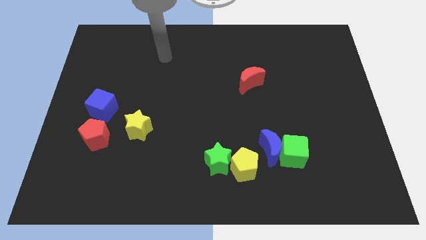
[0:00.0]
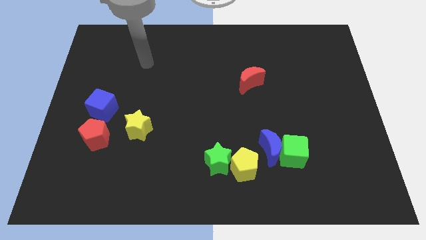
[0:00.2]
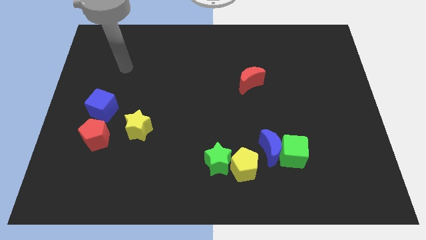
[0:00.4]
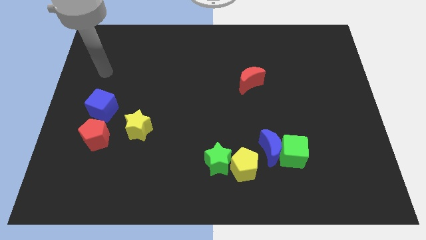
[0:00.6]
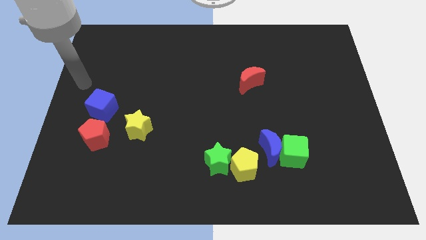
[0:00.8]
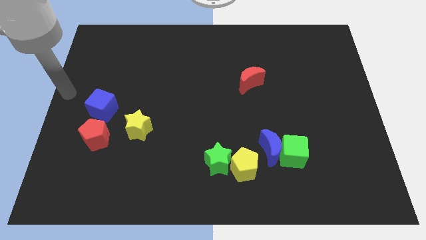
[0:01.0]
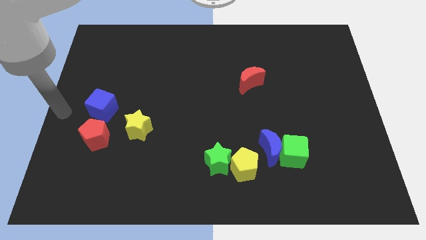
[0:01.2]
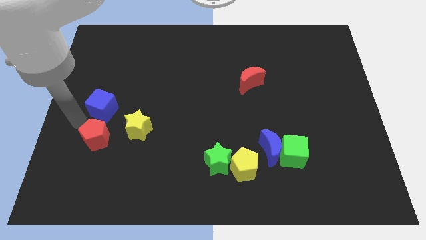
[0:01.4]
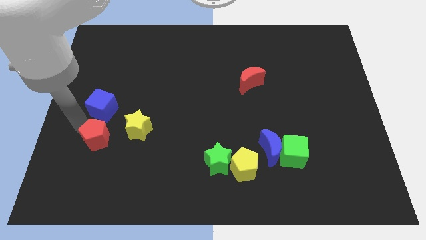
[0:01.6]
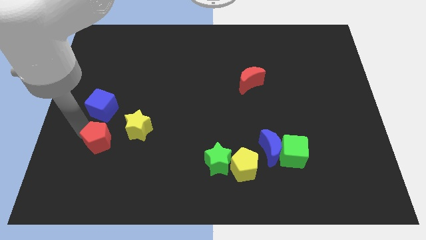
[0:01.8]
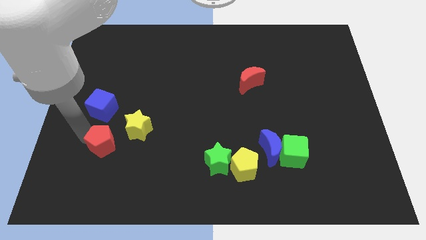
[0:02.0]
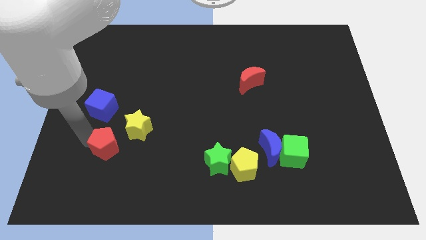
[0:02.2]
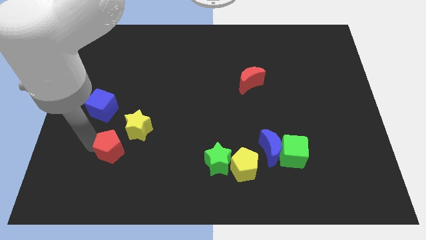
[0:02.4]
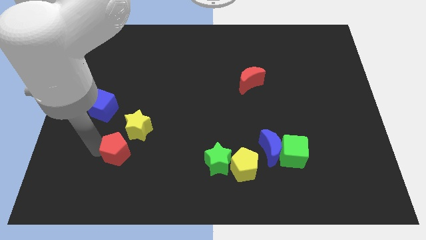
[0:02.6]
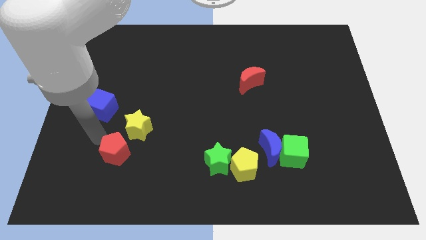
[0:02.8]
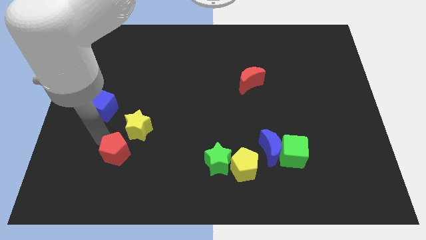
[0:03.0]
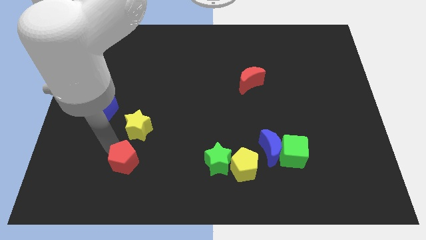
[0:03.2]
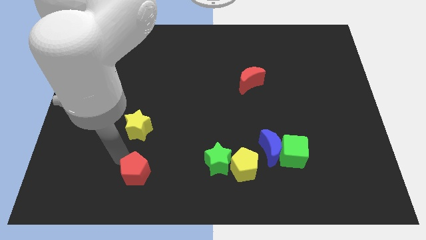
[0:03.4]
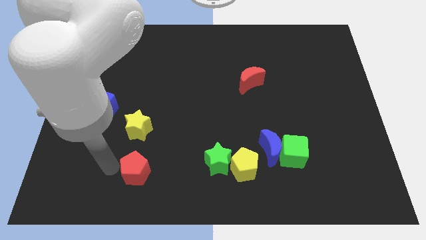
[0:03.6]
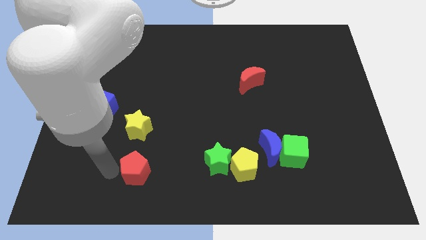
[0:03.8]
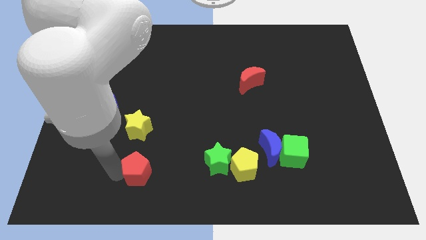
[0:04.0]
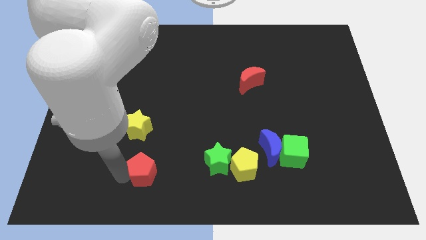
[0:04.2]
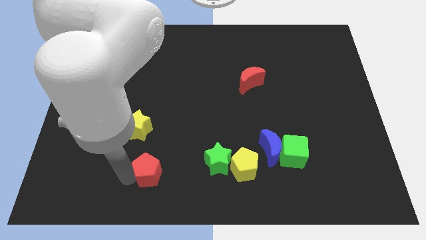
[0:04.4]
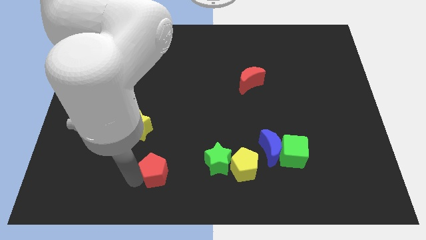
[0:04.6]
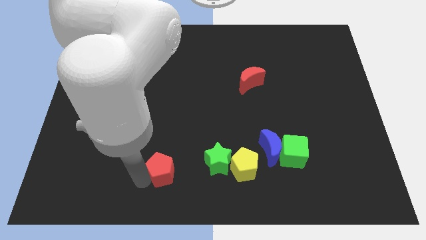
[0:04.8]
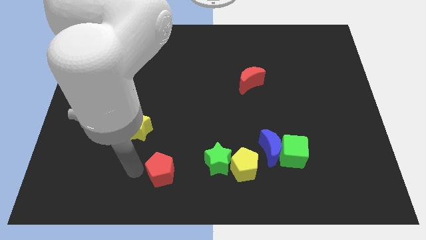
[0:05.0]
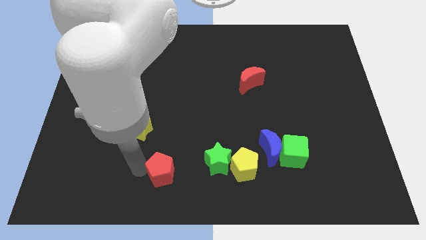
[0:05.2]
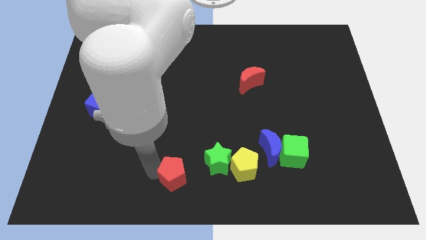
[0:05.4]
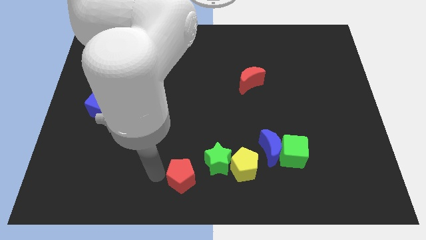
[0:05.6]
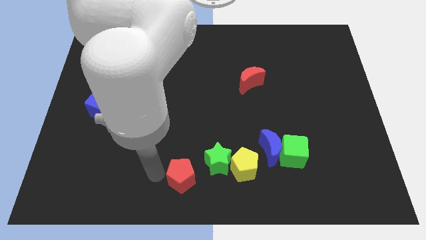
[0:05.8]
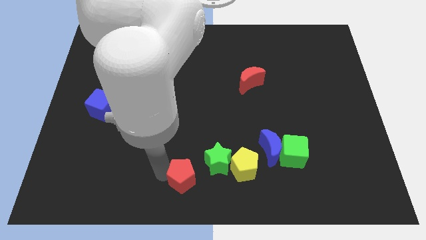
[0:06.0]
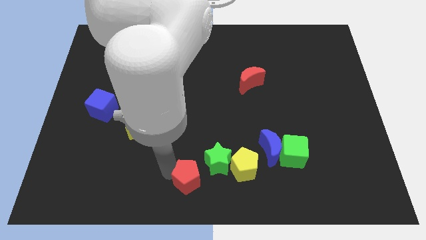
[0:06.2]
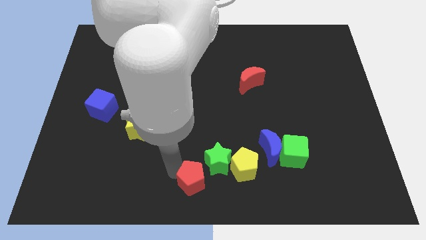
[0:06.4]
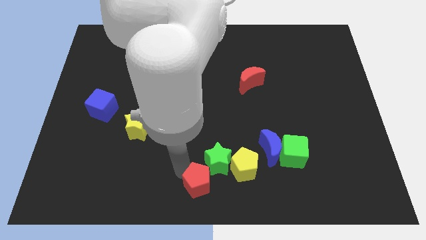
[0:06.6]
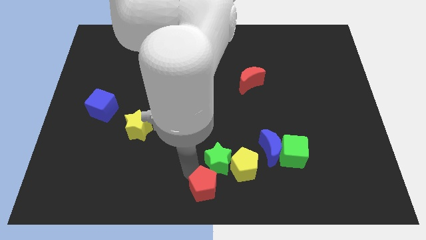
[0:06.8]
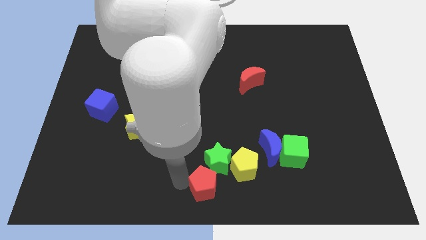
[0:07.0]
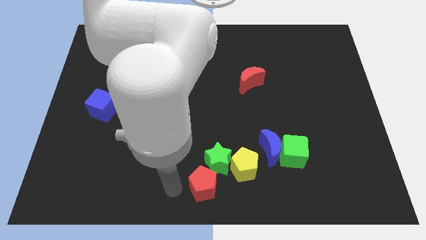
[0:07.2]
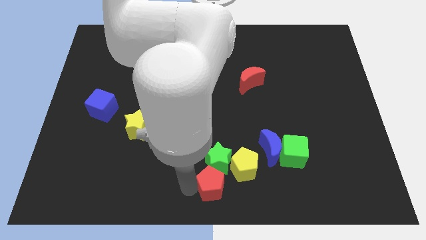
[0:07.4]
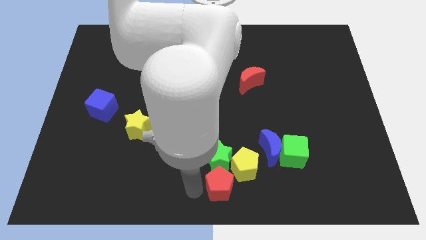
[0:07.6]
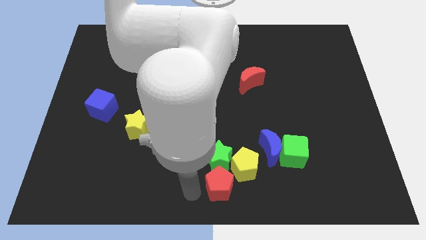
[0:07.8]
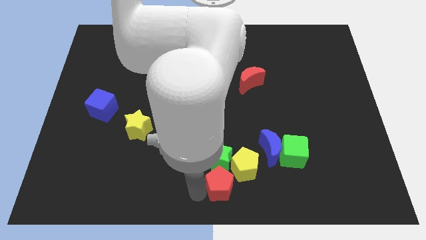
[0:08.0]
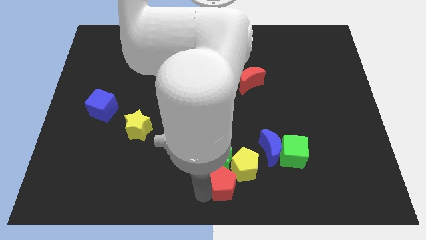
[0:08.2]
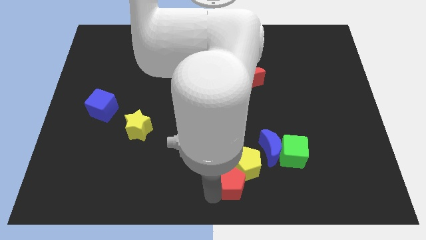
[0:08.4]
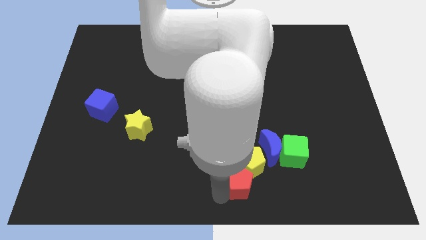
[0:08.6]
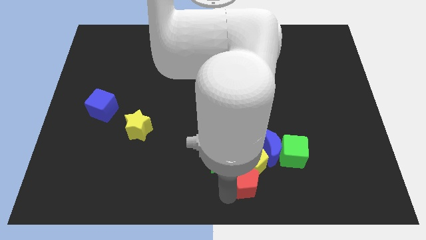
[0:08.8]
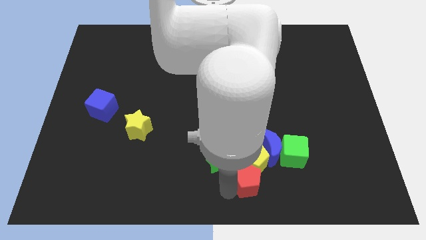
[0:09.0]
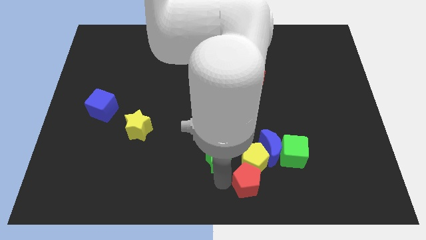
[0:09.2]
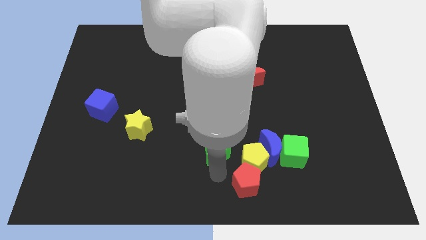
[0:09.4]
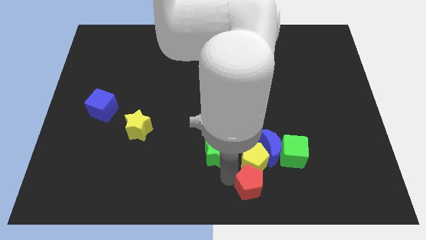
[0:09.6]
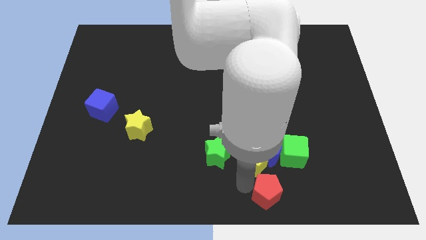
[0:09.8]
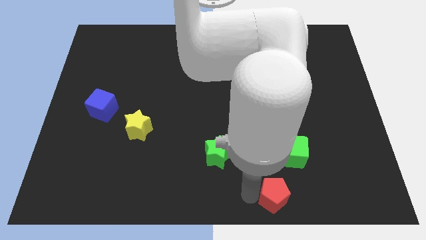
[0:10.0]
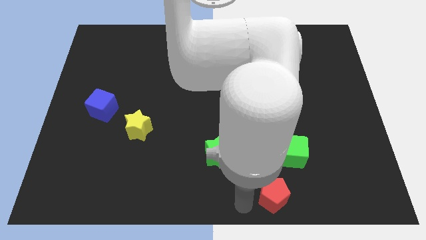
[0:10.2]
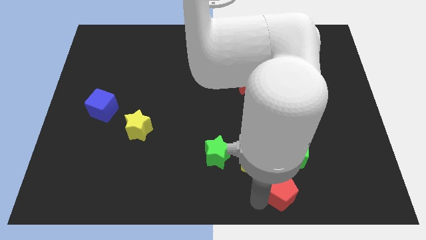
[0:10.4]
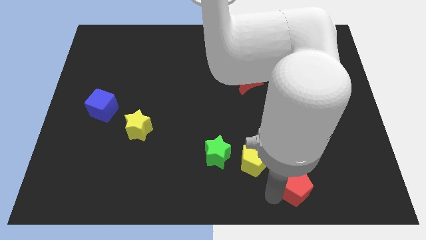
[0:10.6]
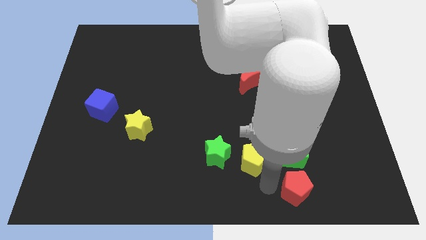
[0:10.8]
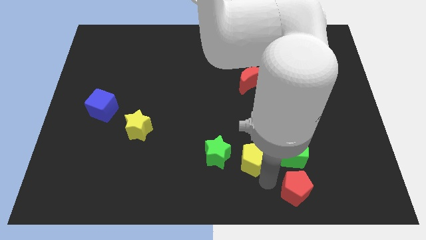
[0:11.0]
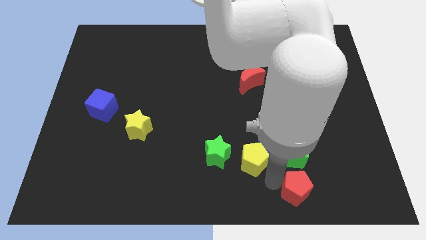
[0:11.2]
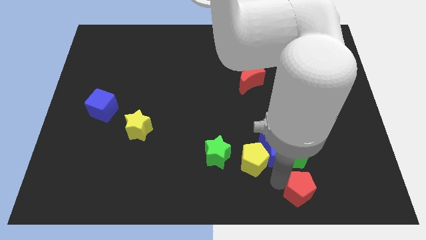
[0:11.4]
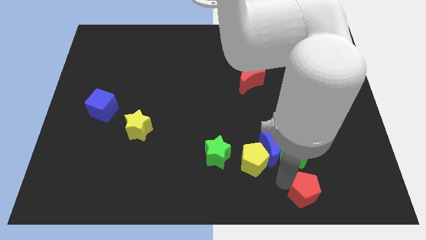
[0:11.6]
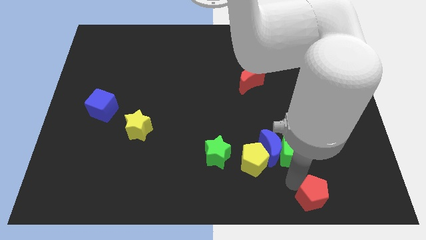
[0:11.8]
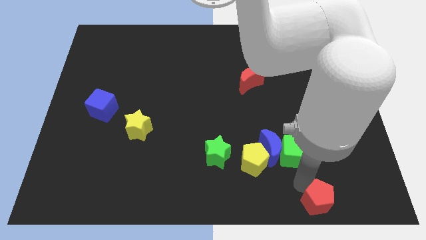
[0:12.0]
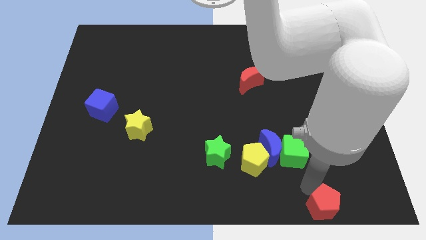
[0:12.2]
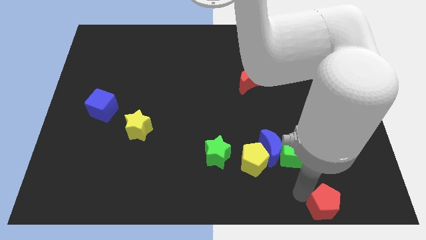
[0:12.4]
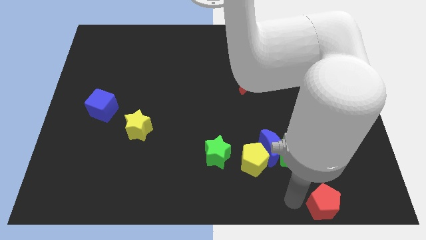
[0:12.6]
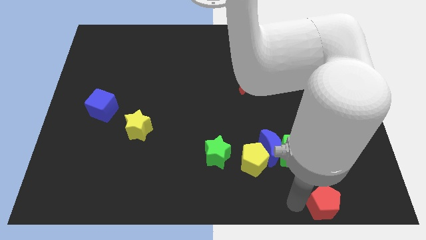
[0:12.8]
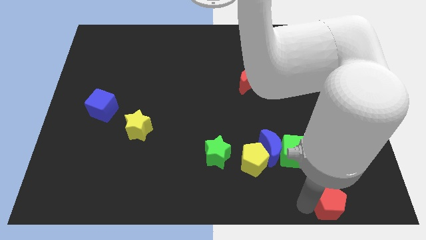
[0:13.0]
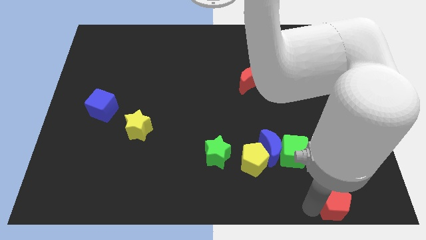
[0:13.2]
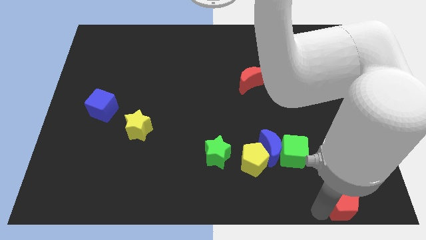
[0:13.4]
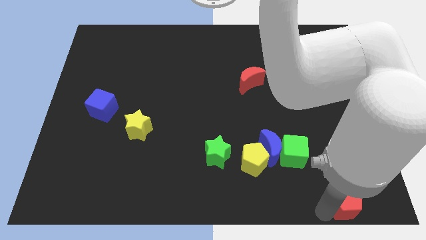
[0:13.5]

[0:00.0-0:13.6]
put the red pentagon to the bottom right of the board
